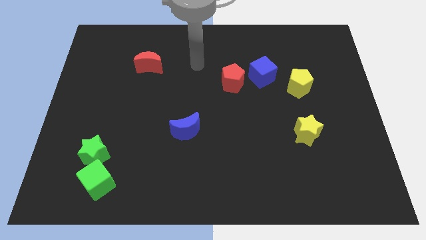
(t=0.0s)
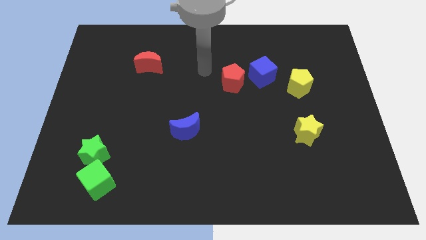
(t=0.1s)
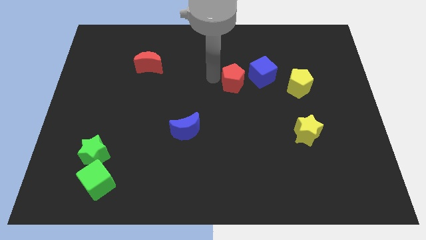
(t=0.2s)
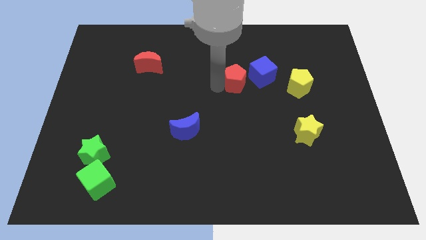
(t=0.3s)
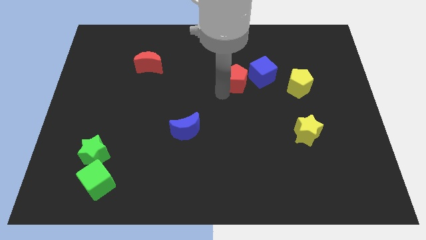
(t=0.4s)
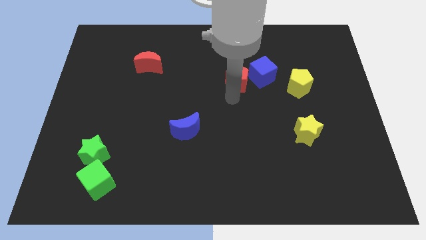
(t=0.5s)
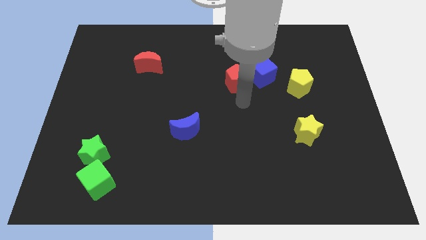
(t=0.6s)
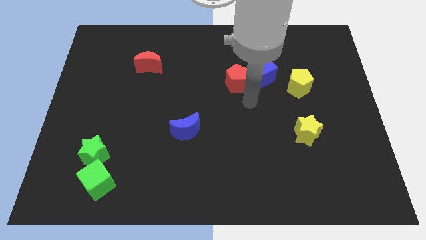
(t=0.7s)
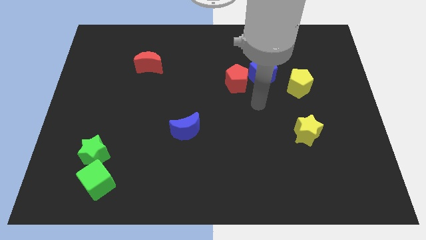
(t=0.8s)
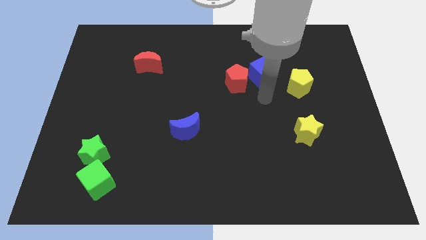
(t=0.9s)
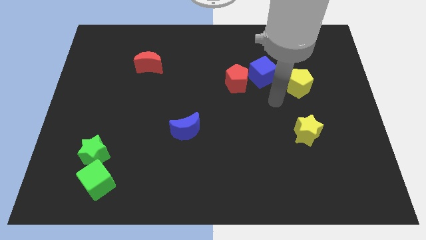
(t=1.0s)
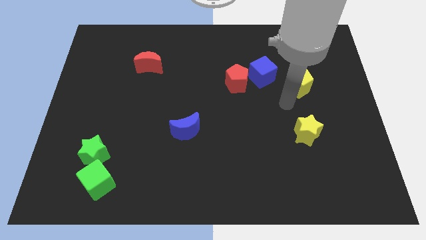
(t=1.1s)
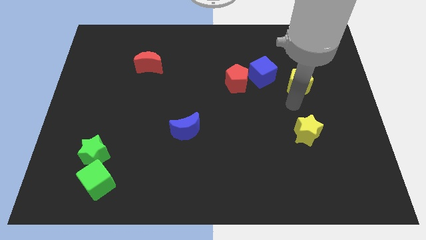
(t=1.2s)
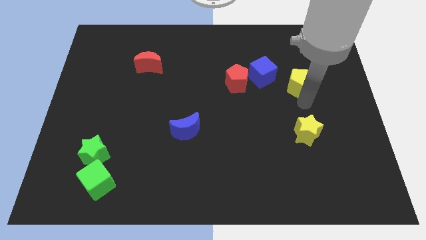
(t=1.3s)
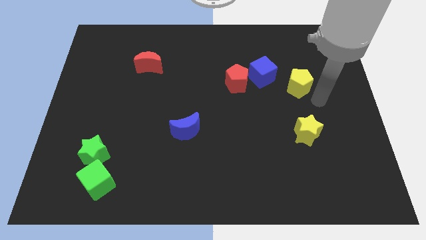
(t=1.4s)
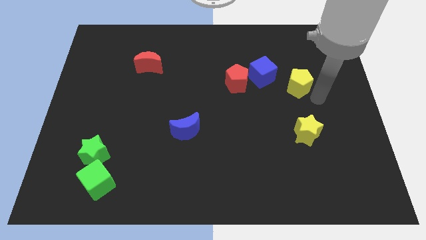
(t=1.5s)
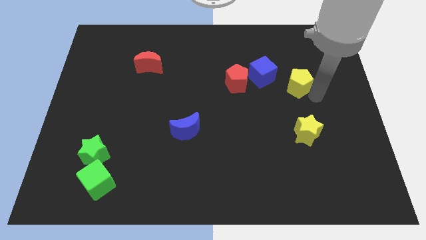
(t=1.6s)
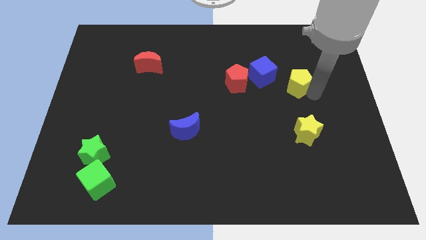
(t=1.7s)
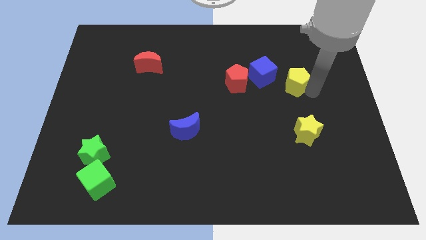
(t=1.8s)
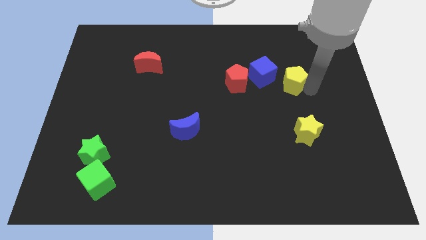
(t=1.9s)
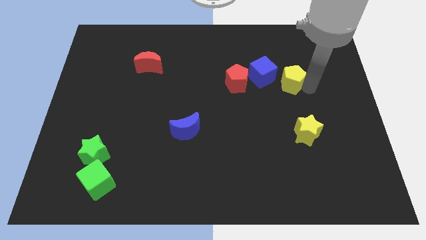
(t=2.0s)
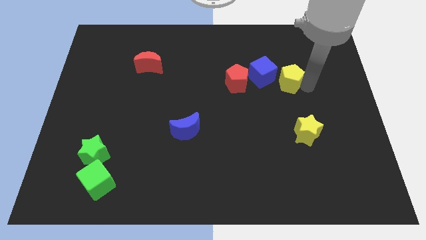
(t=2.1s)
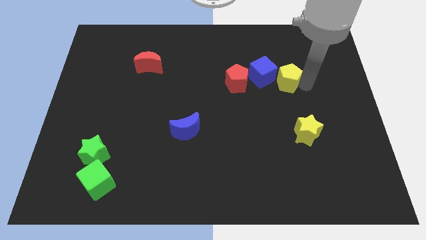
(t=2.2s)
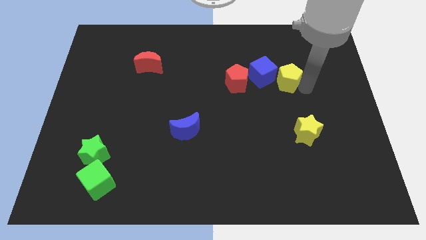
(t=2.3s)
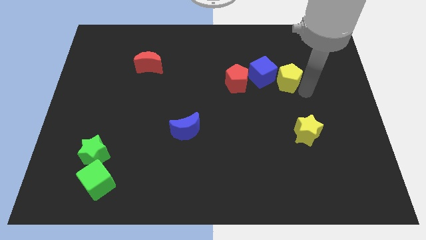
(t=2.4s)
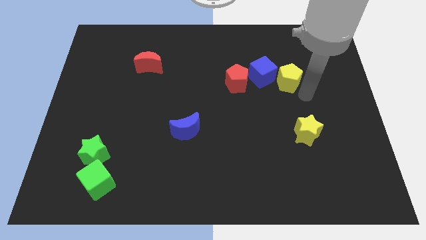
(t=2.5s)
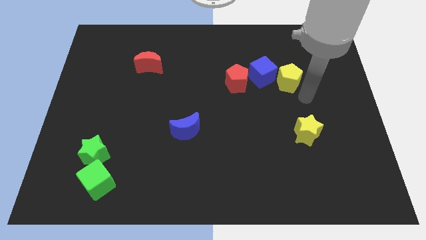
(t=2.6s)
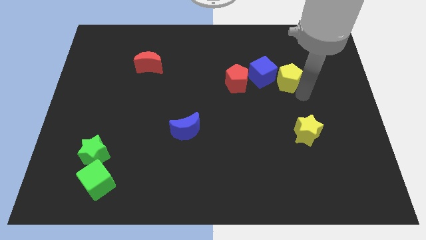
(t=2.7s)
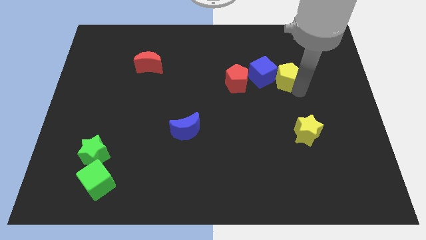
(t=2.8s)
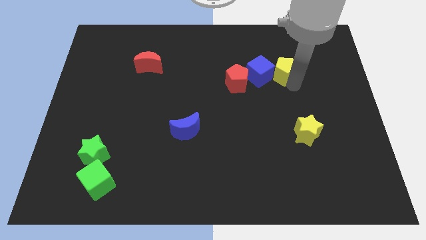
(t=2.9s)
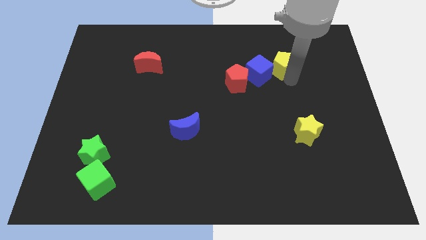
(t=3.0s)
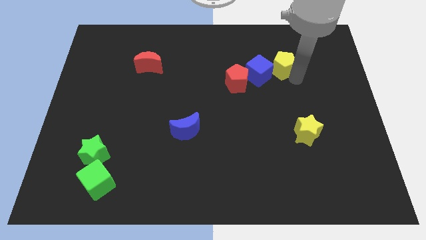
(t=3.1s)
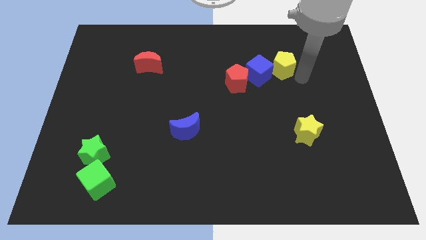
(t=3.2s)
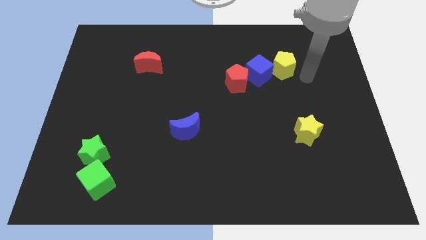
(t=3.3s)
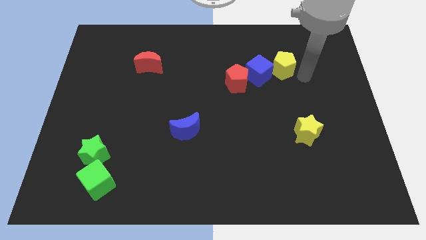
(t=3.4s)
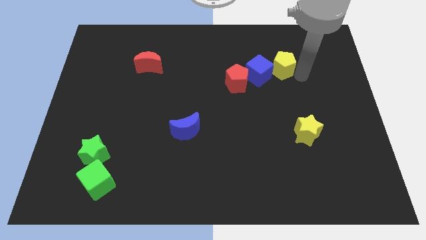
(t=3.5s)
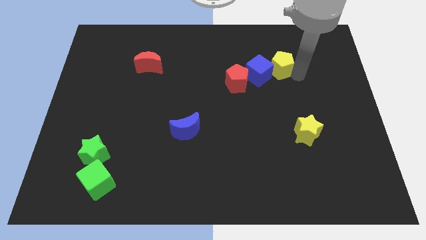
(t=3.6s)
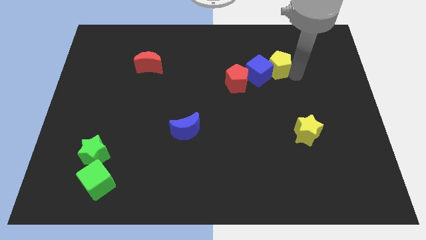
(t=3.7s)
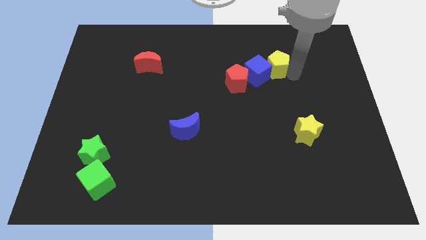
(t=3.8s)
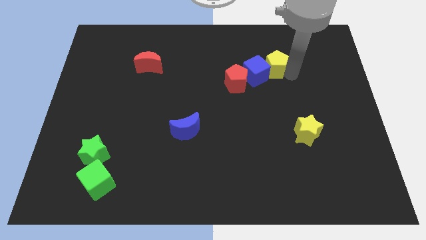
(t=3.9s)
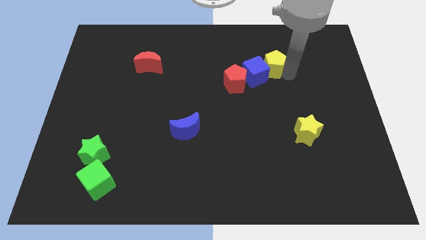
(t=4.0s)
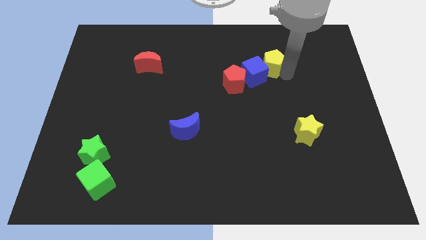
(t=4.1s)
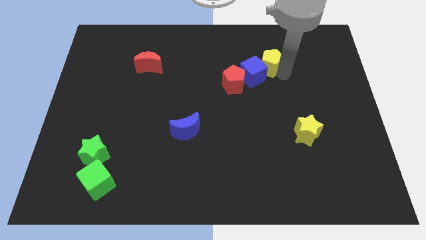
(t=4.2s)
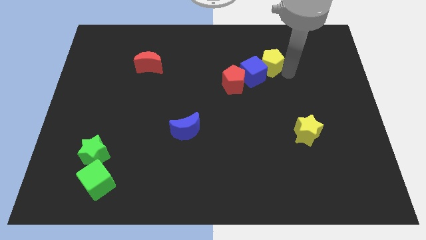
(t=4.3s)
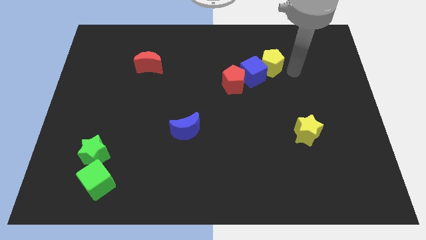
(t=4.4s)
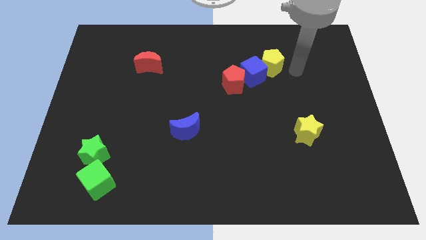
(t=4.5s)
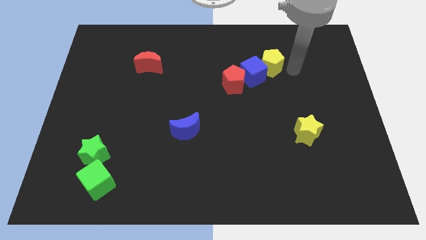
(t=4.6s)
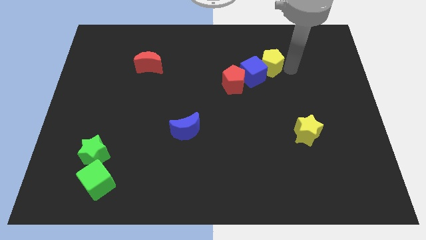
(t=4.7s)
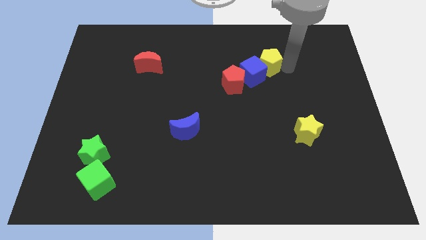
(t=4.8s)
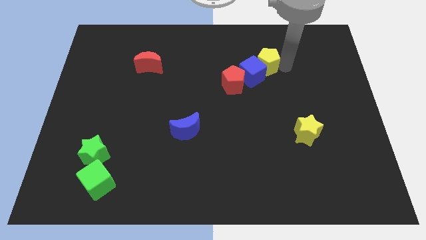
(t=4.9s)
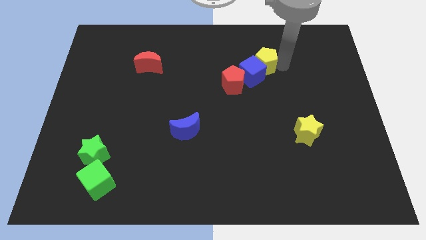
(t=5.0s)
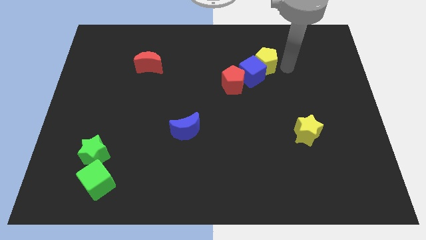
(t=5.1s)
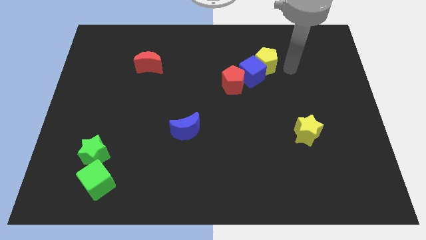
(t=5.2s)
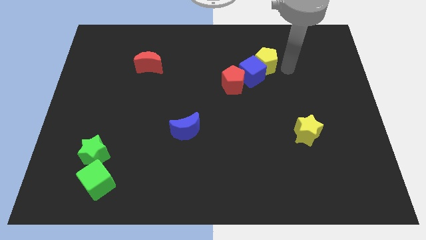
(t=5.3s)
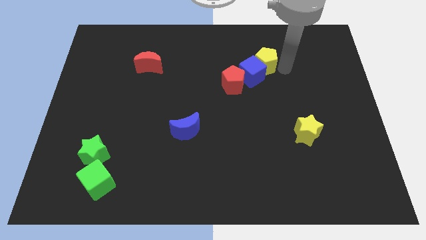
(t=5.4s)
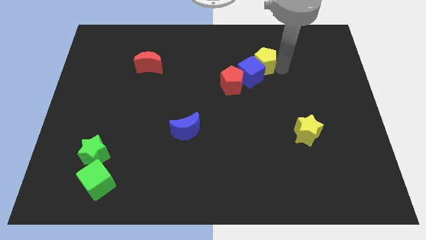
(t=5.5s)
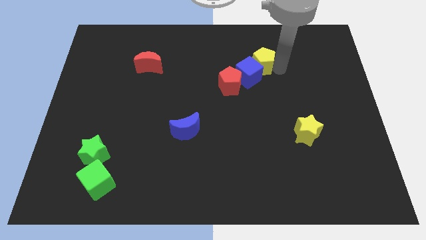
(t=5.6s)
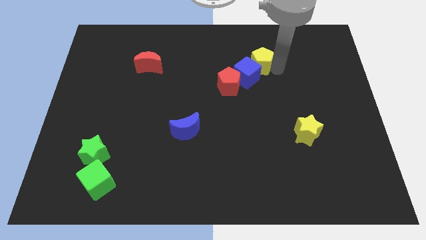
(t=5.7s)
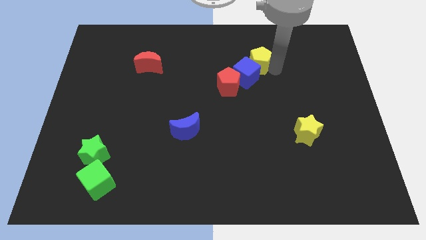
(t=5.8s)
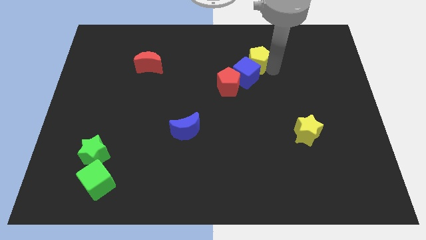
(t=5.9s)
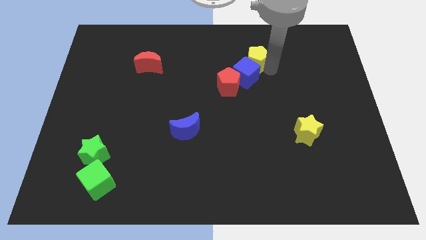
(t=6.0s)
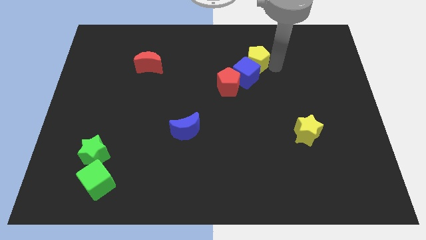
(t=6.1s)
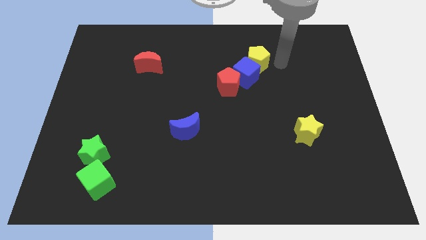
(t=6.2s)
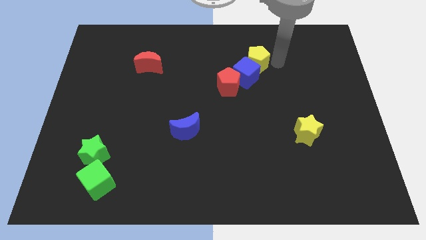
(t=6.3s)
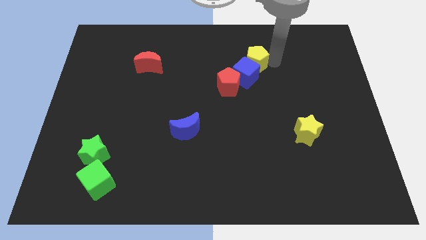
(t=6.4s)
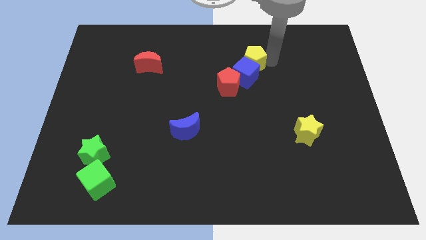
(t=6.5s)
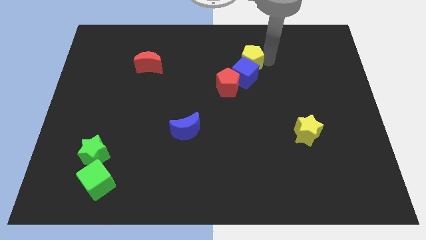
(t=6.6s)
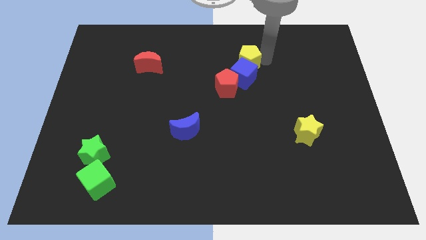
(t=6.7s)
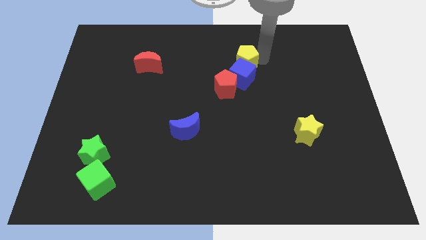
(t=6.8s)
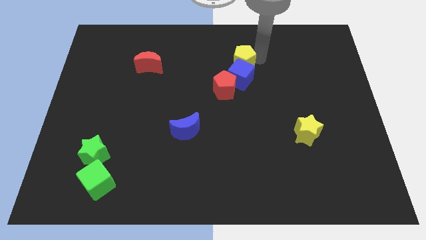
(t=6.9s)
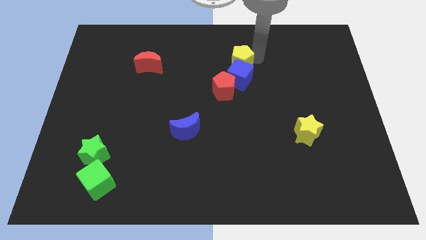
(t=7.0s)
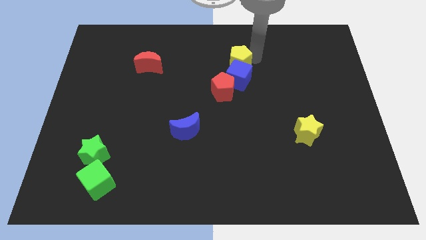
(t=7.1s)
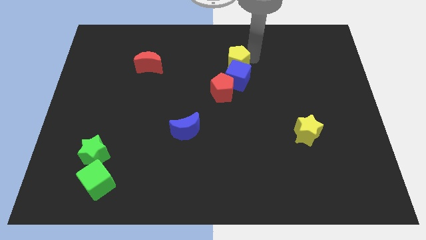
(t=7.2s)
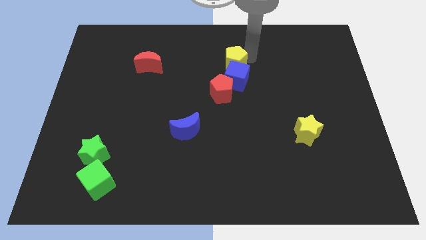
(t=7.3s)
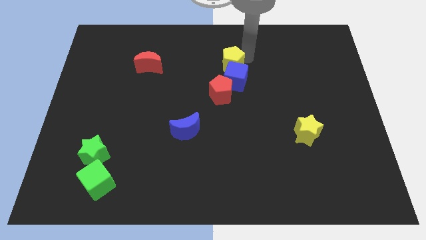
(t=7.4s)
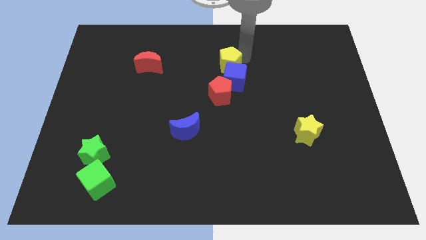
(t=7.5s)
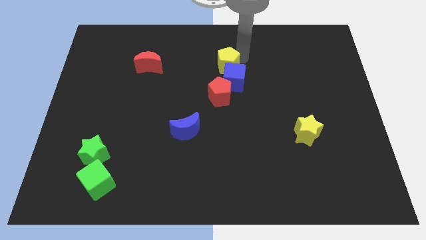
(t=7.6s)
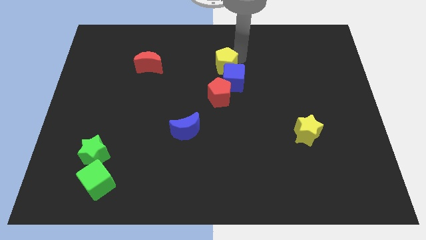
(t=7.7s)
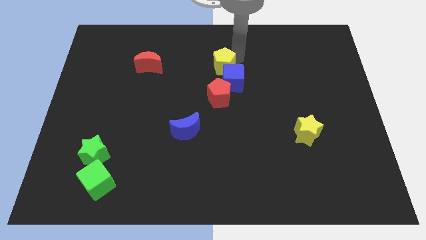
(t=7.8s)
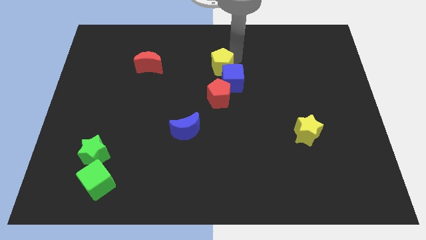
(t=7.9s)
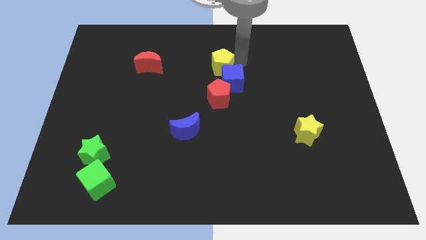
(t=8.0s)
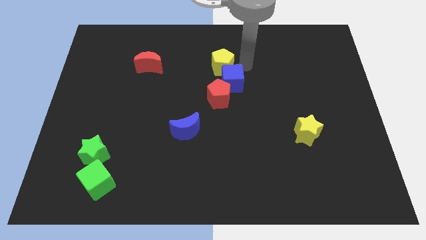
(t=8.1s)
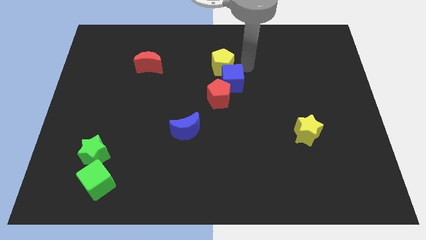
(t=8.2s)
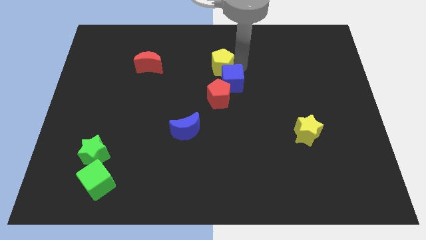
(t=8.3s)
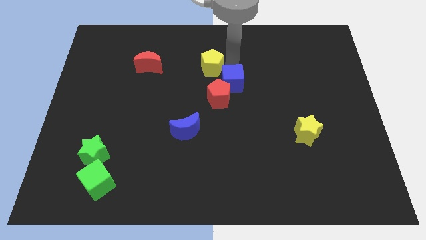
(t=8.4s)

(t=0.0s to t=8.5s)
push the yellow pentagon to the right of the red moon
